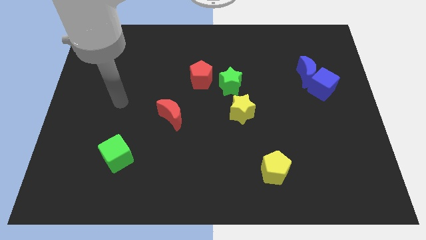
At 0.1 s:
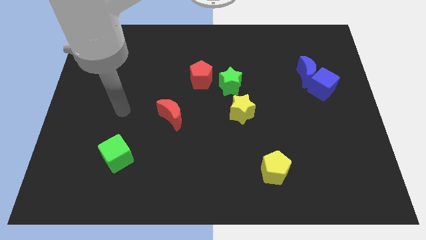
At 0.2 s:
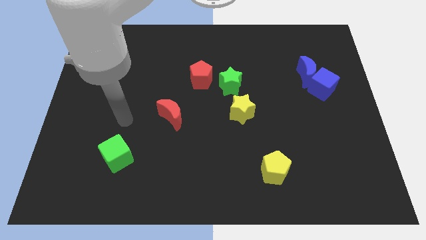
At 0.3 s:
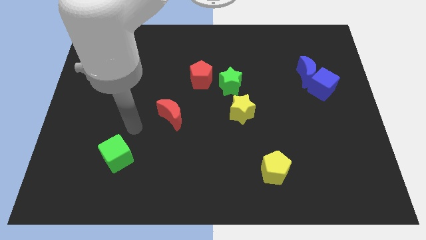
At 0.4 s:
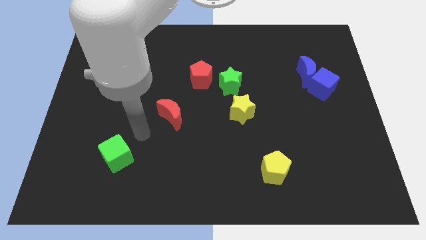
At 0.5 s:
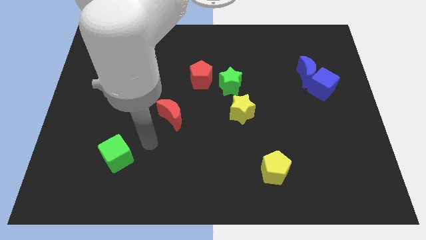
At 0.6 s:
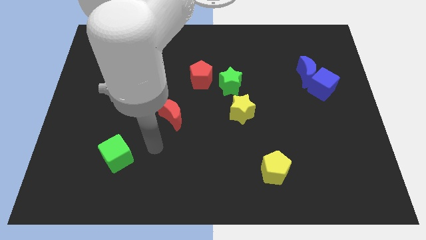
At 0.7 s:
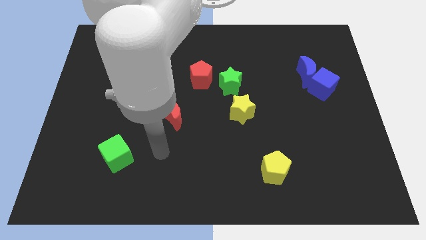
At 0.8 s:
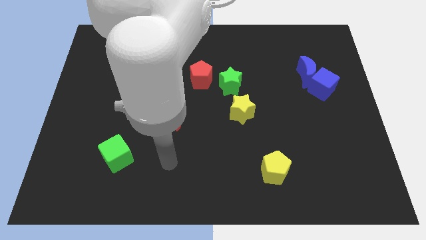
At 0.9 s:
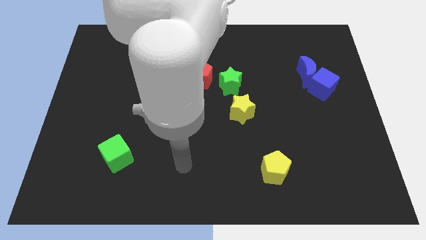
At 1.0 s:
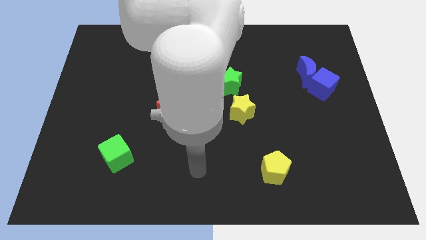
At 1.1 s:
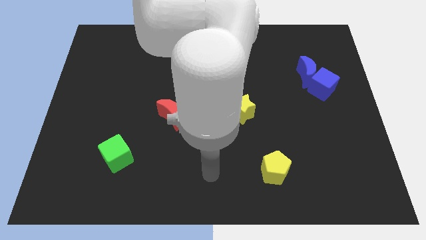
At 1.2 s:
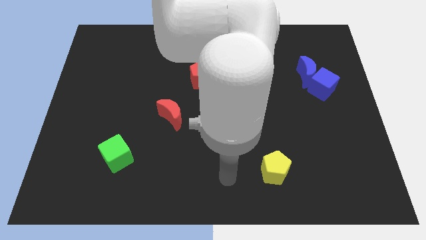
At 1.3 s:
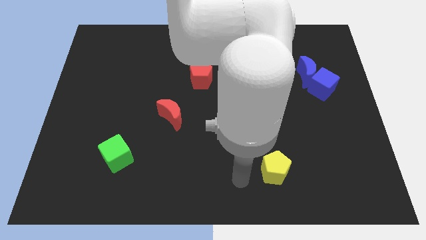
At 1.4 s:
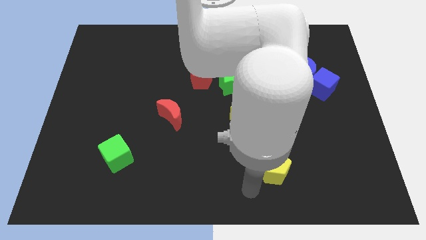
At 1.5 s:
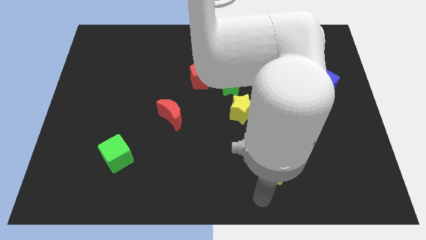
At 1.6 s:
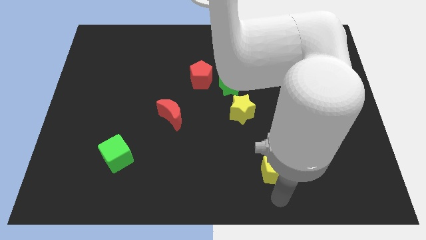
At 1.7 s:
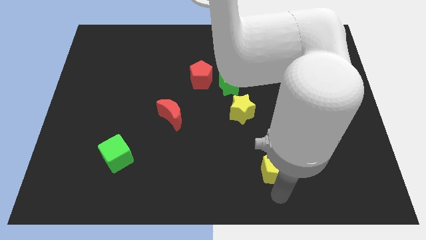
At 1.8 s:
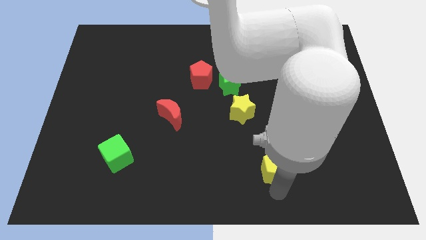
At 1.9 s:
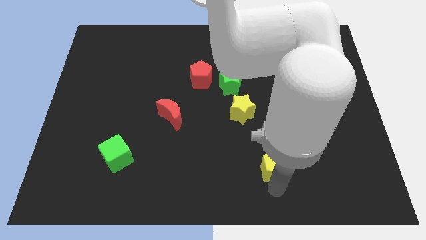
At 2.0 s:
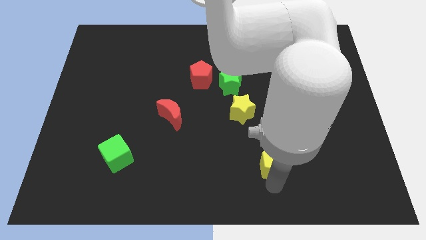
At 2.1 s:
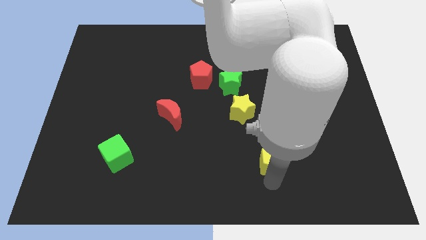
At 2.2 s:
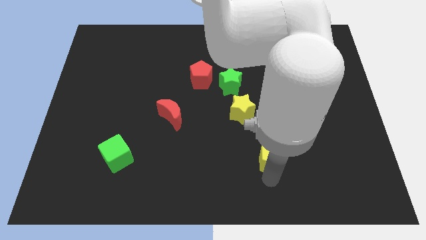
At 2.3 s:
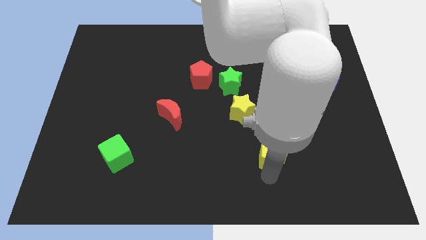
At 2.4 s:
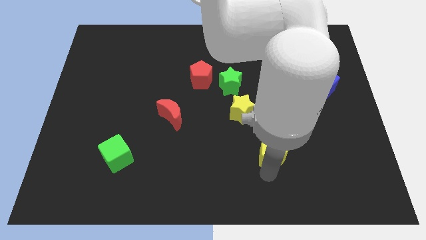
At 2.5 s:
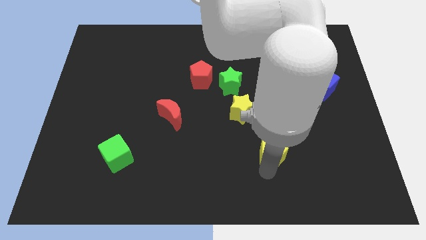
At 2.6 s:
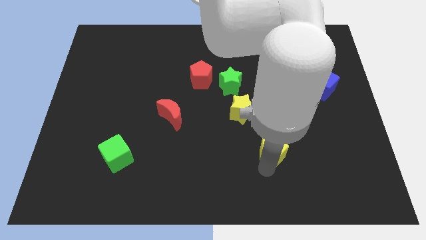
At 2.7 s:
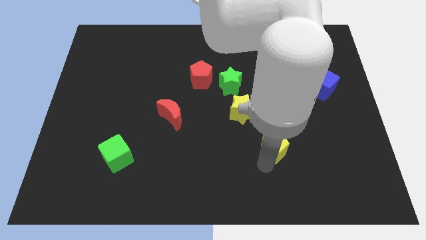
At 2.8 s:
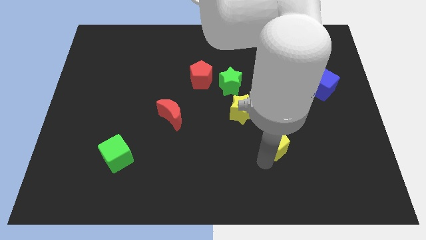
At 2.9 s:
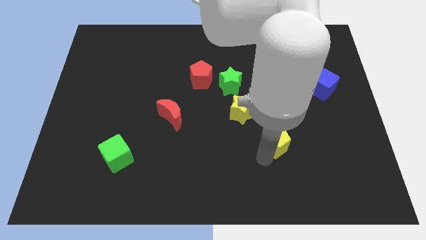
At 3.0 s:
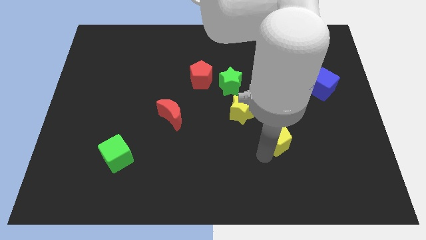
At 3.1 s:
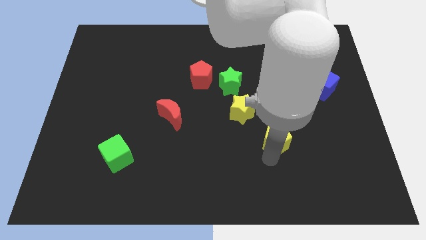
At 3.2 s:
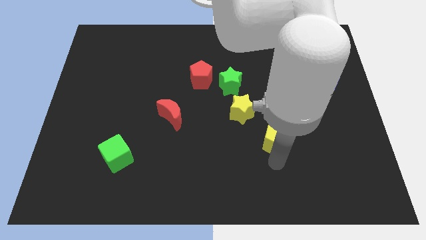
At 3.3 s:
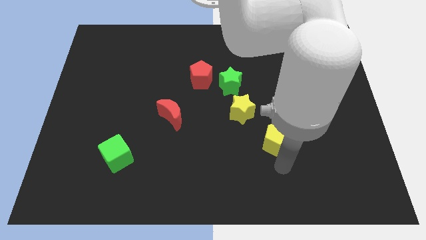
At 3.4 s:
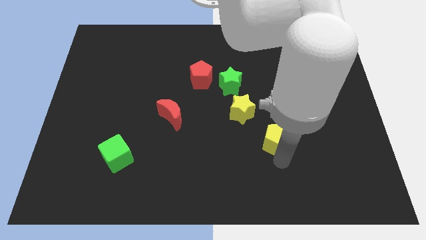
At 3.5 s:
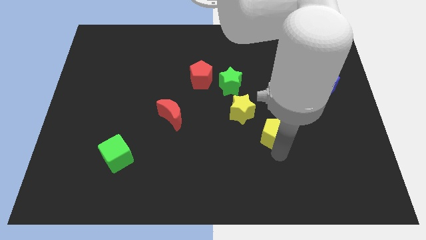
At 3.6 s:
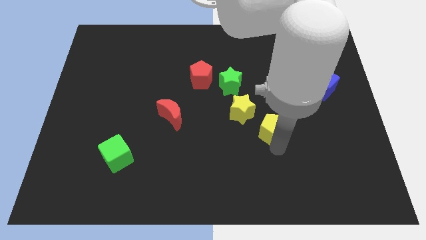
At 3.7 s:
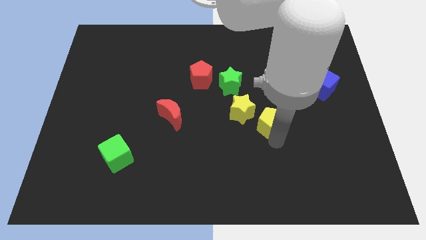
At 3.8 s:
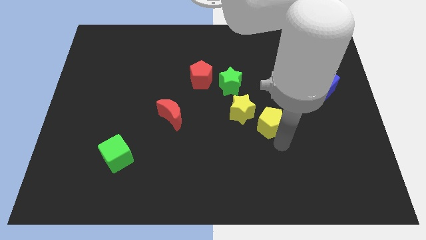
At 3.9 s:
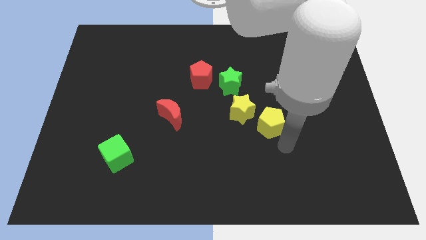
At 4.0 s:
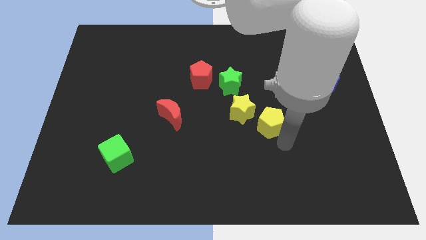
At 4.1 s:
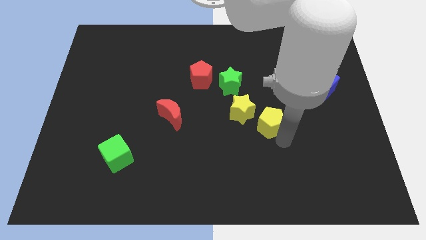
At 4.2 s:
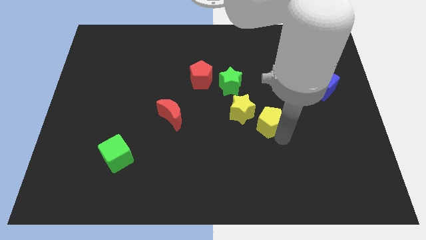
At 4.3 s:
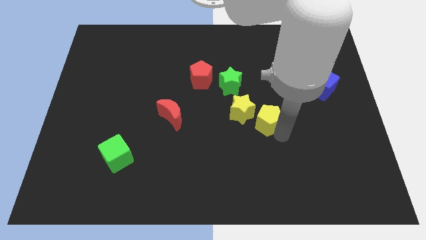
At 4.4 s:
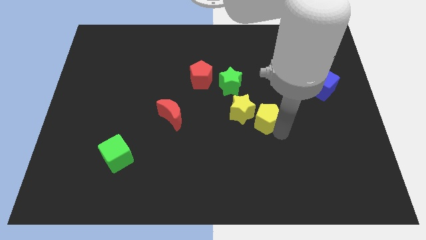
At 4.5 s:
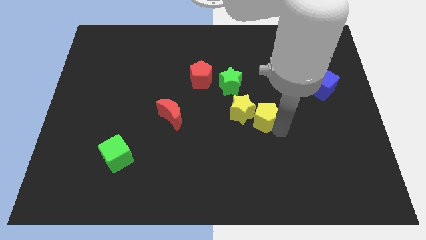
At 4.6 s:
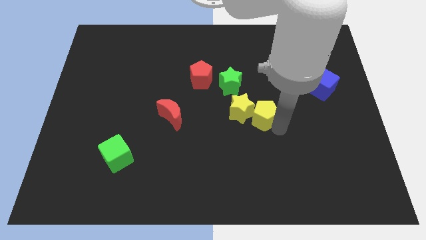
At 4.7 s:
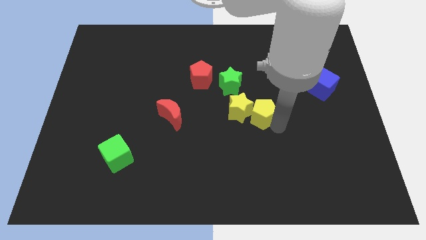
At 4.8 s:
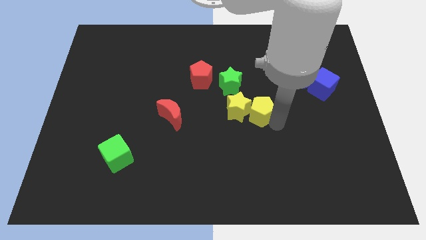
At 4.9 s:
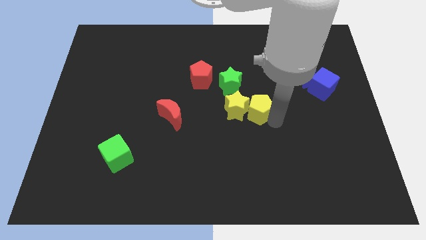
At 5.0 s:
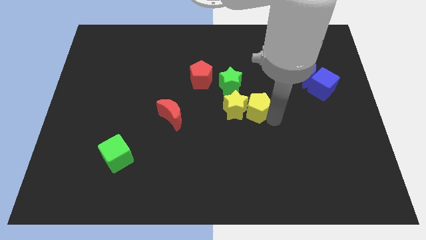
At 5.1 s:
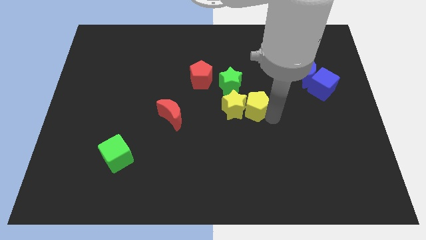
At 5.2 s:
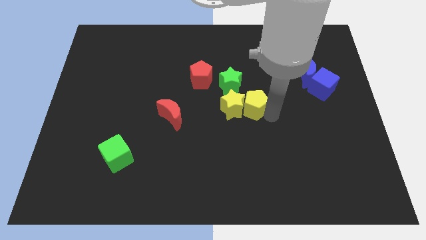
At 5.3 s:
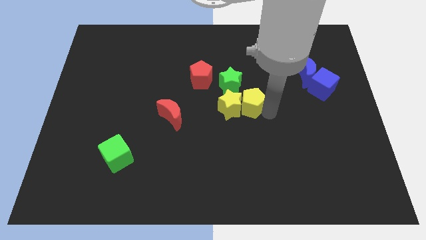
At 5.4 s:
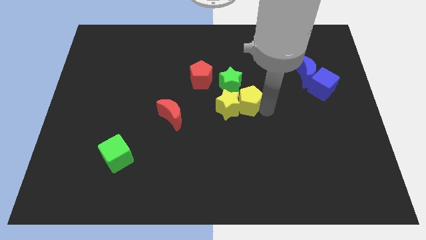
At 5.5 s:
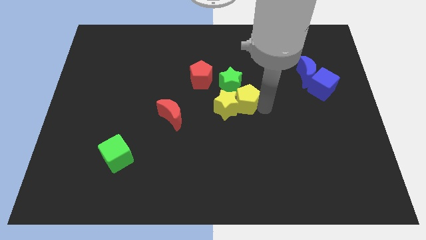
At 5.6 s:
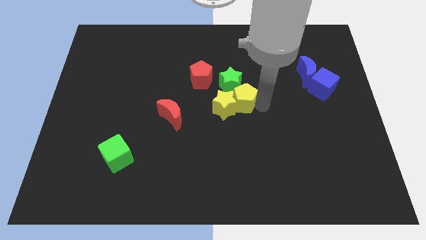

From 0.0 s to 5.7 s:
push the yellow pentagon close to the green star

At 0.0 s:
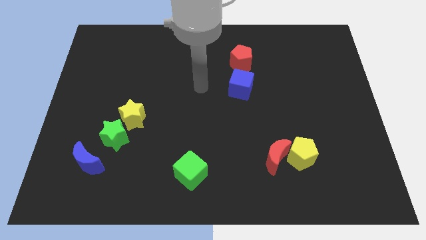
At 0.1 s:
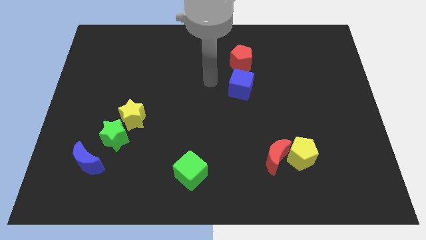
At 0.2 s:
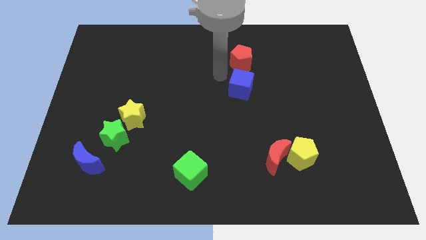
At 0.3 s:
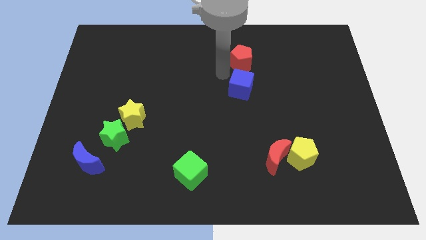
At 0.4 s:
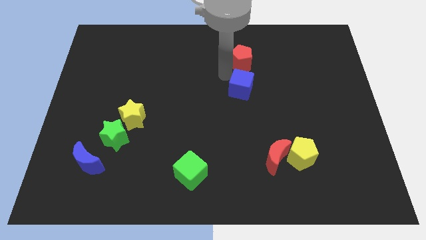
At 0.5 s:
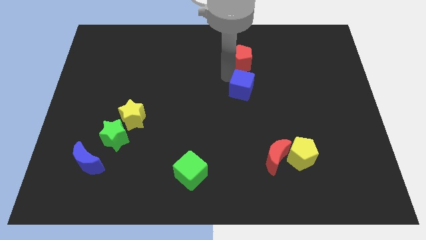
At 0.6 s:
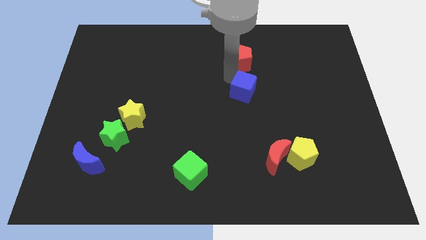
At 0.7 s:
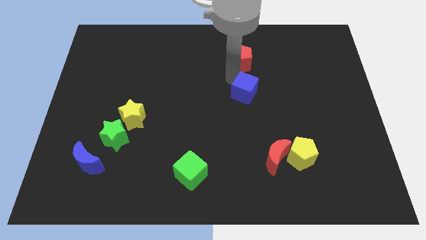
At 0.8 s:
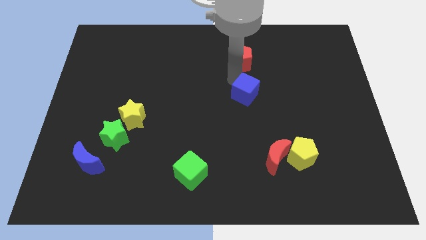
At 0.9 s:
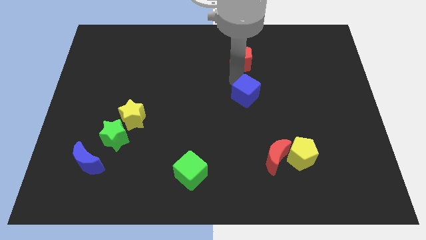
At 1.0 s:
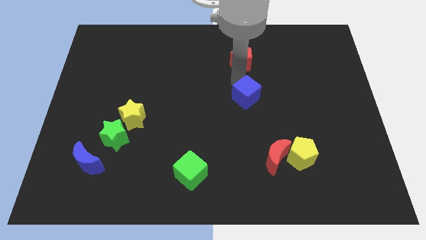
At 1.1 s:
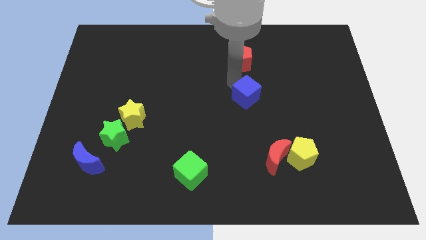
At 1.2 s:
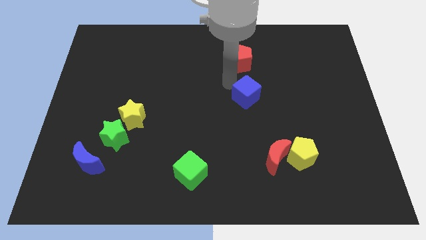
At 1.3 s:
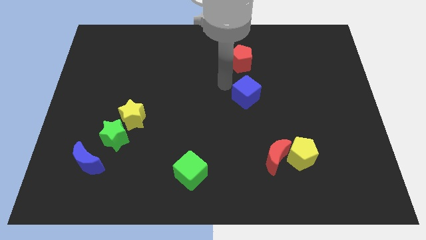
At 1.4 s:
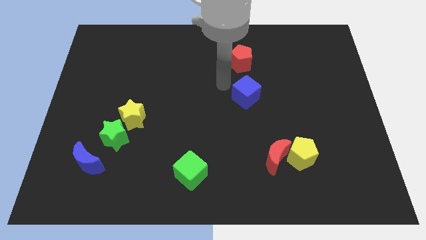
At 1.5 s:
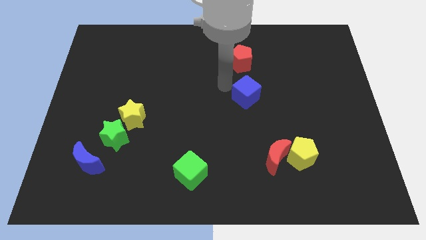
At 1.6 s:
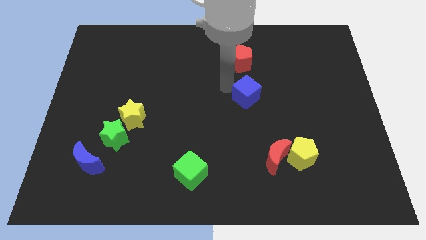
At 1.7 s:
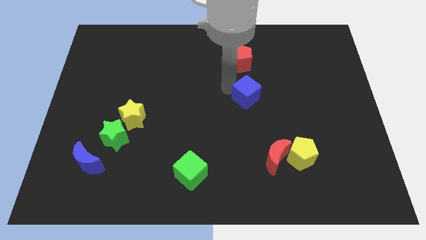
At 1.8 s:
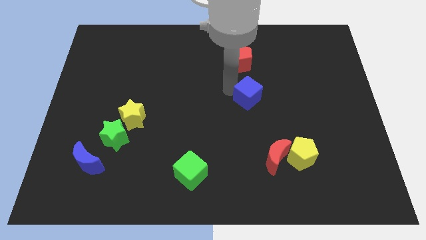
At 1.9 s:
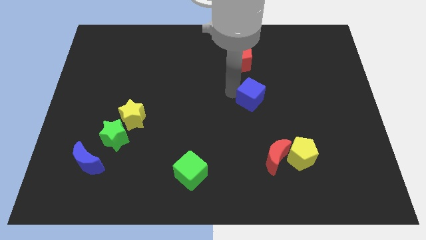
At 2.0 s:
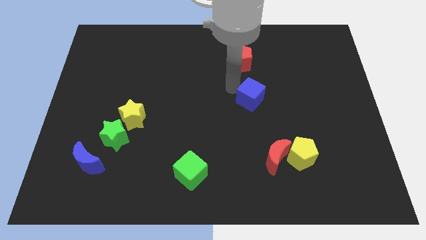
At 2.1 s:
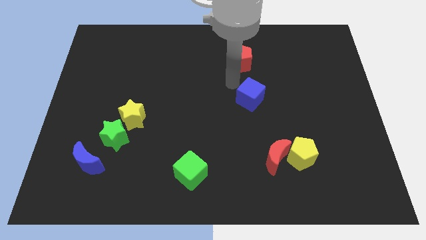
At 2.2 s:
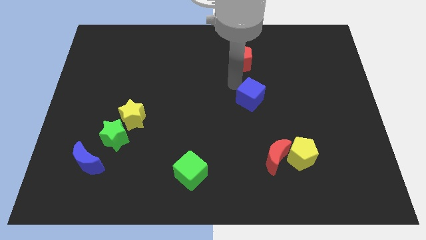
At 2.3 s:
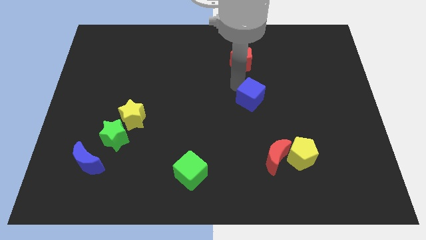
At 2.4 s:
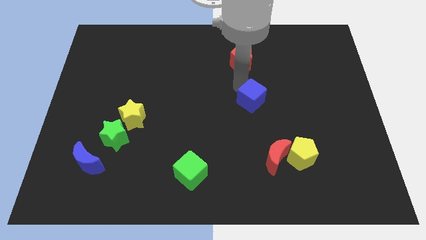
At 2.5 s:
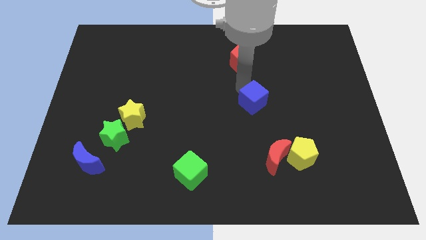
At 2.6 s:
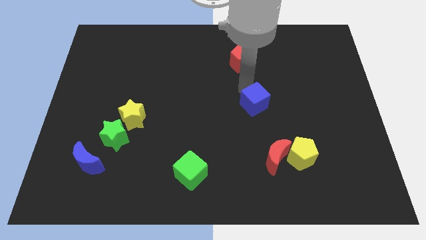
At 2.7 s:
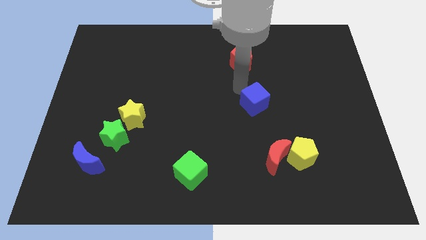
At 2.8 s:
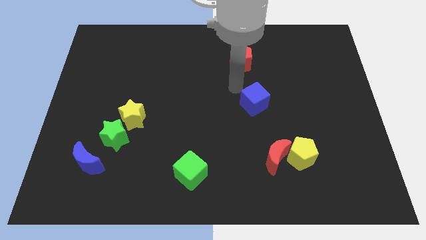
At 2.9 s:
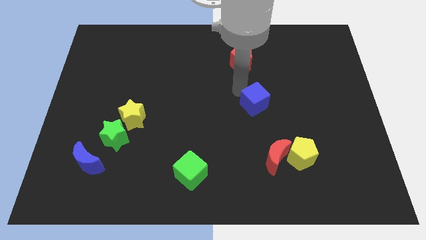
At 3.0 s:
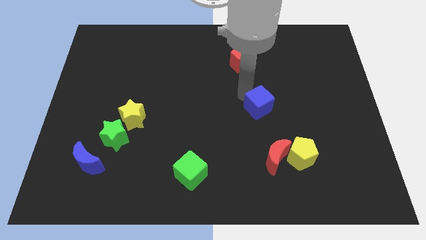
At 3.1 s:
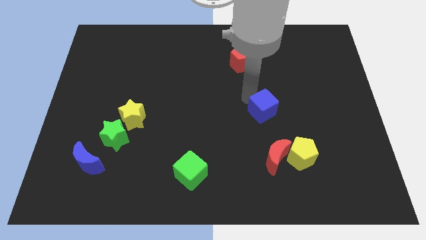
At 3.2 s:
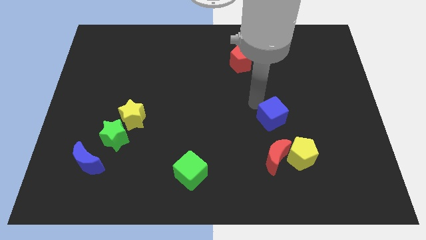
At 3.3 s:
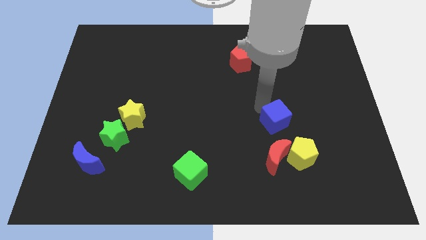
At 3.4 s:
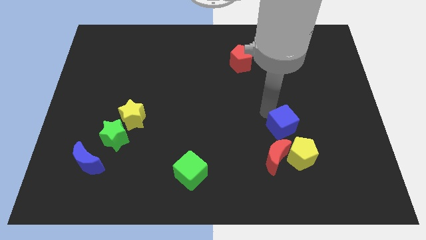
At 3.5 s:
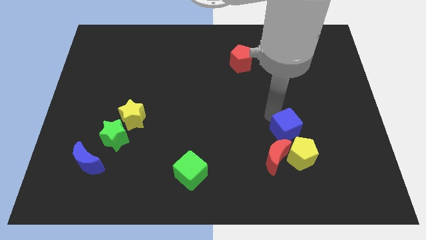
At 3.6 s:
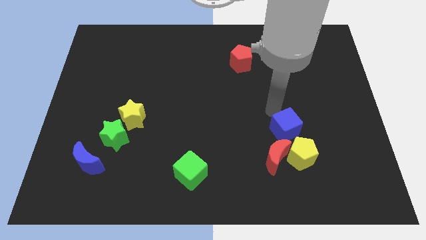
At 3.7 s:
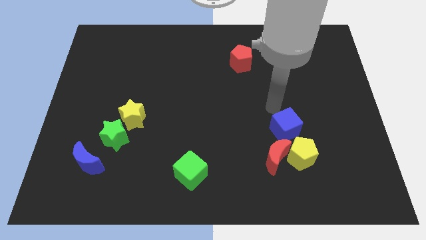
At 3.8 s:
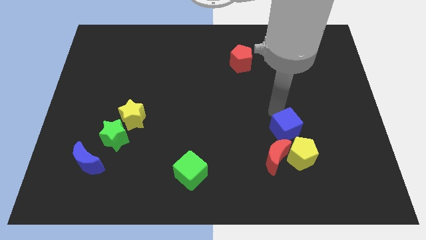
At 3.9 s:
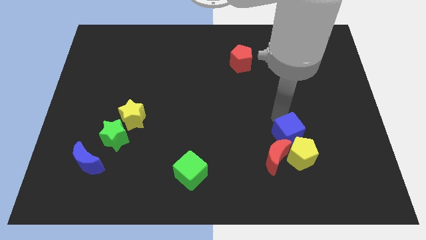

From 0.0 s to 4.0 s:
put the blue cube close to the yellow pentagon
